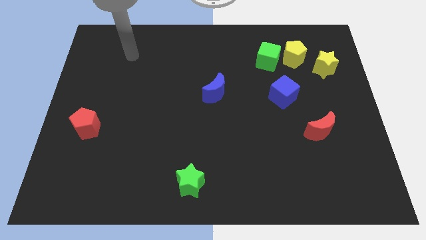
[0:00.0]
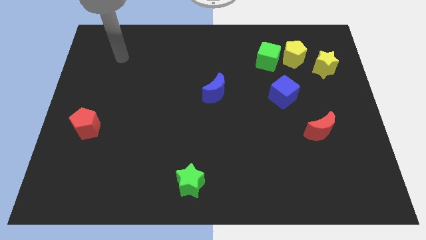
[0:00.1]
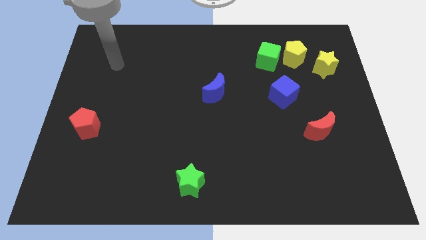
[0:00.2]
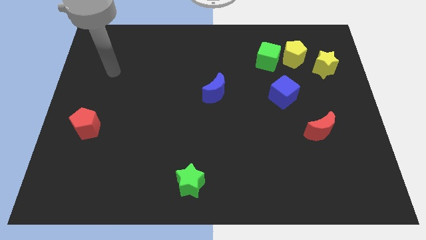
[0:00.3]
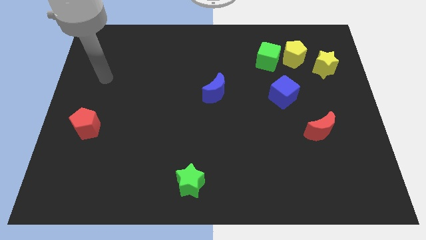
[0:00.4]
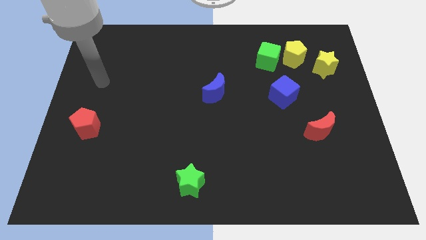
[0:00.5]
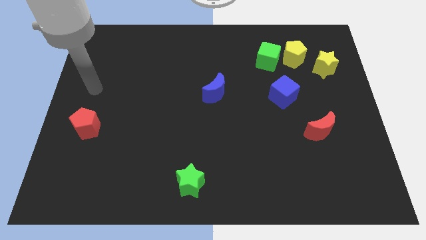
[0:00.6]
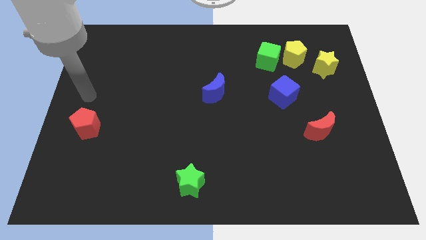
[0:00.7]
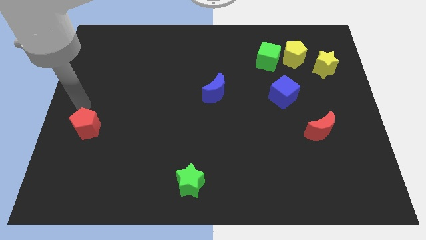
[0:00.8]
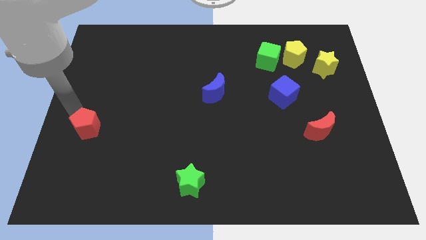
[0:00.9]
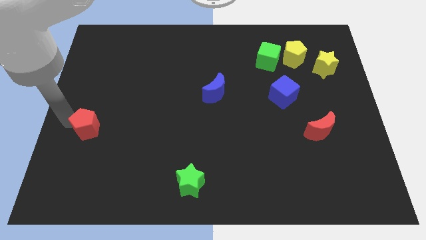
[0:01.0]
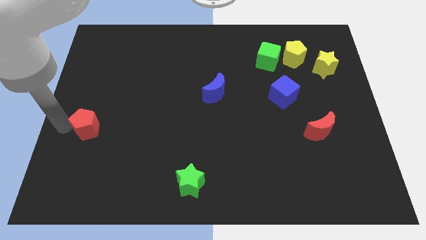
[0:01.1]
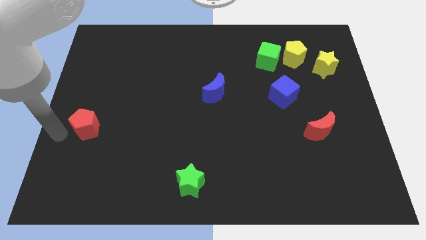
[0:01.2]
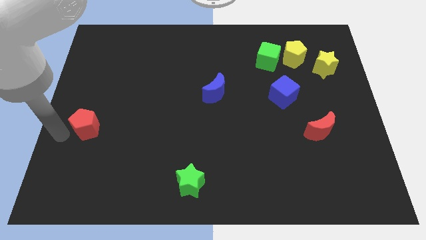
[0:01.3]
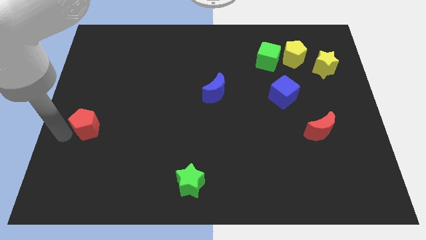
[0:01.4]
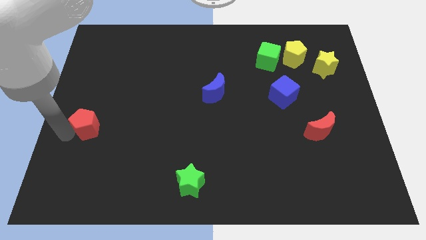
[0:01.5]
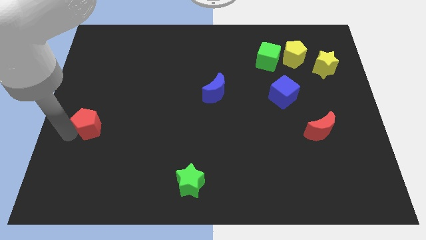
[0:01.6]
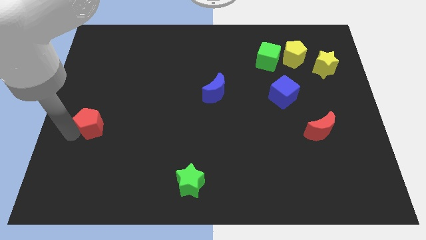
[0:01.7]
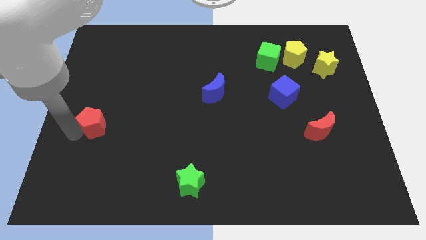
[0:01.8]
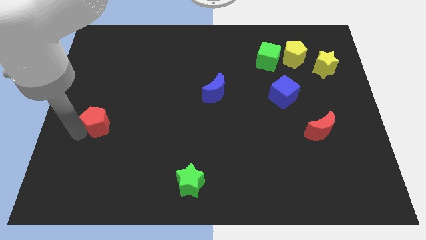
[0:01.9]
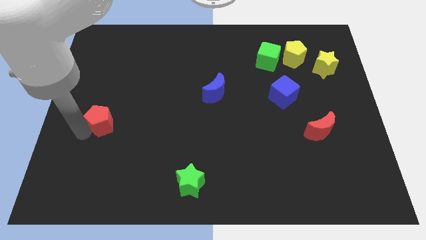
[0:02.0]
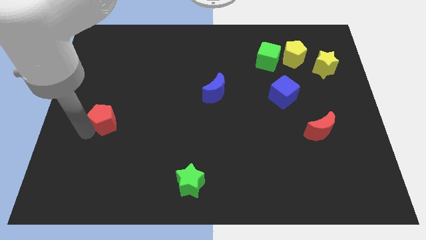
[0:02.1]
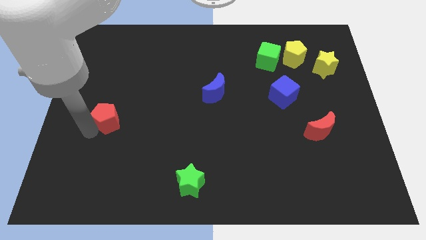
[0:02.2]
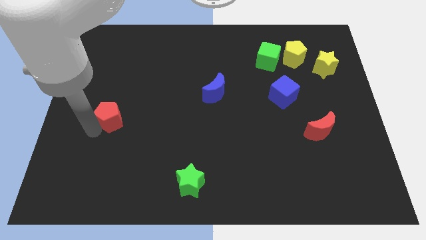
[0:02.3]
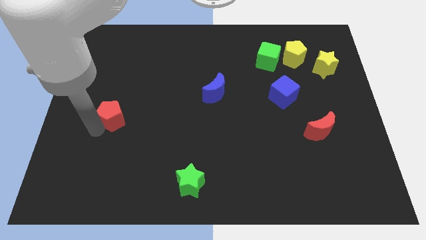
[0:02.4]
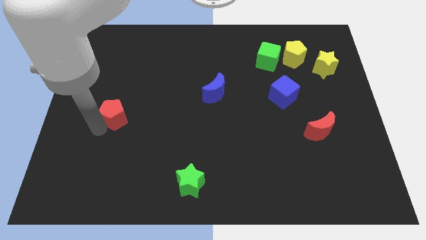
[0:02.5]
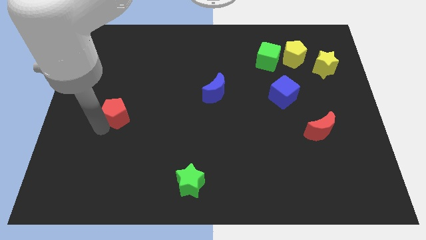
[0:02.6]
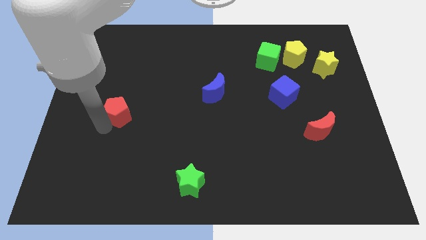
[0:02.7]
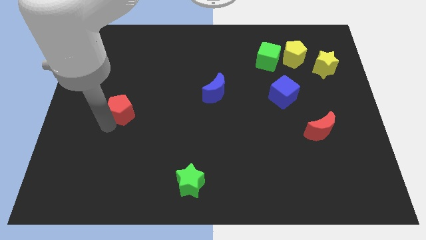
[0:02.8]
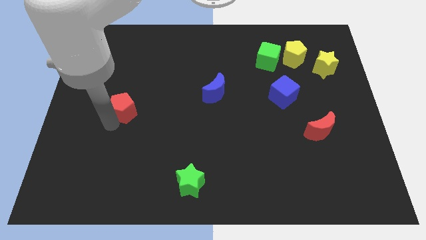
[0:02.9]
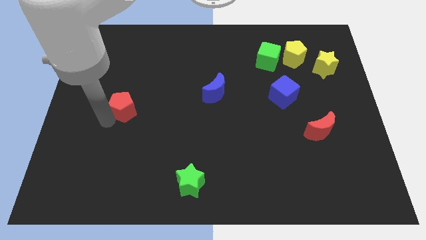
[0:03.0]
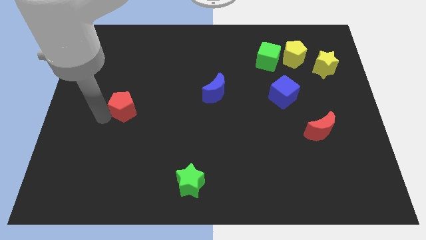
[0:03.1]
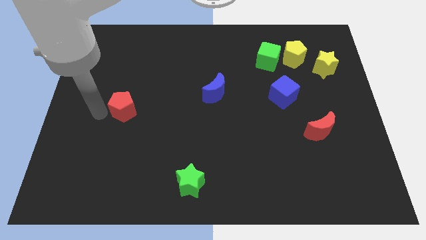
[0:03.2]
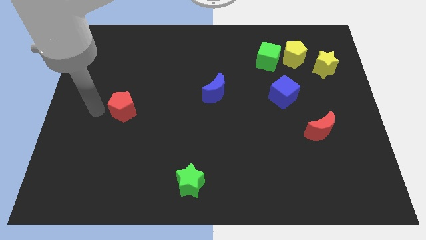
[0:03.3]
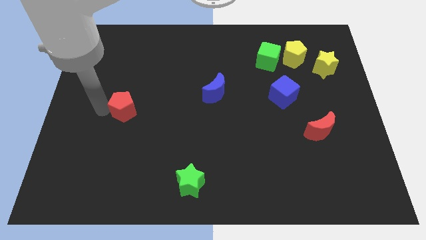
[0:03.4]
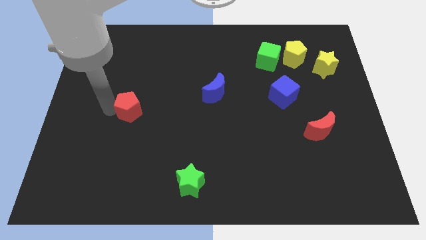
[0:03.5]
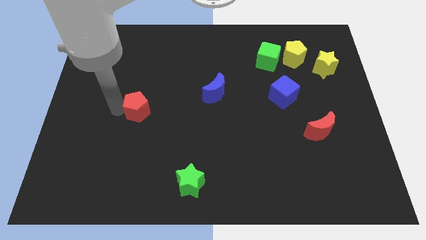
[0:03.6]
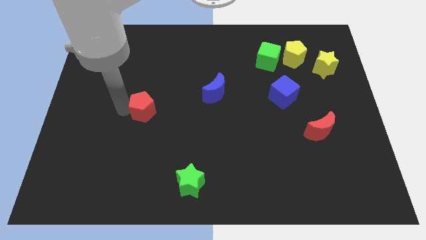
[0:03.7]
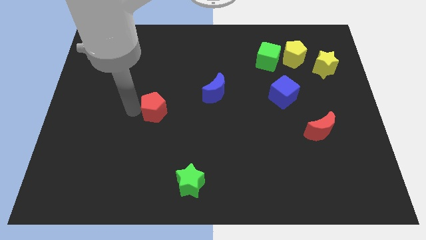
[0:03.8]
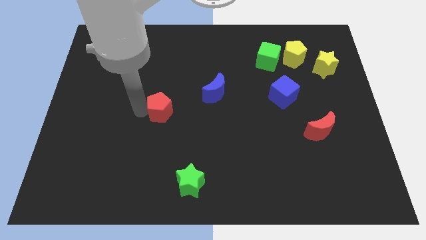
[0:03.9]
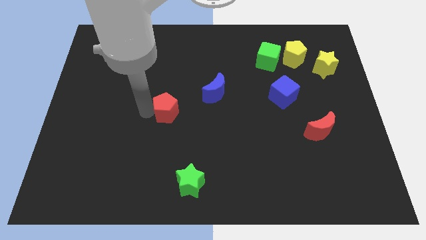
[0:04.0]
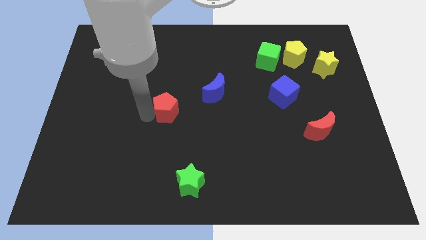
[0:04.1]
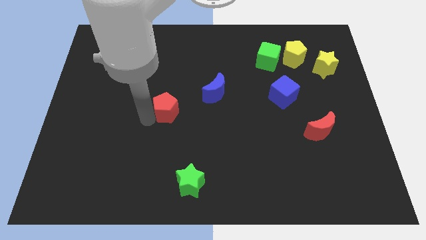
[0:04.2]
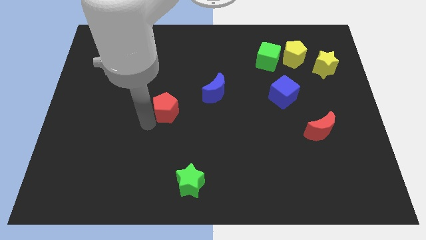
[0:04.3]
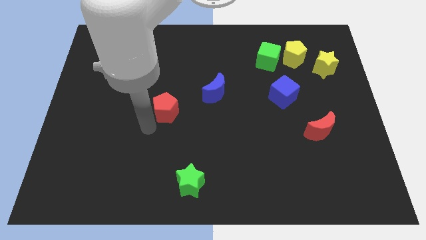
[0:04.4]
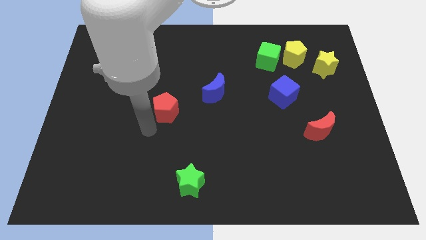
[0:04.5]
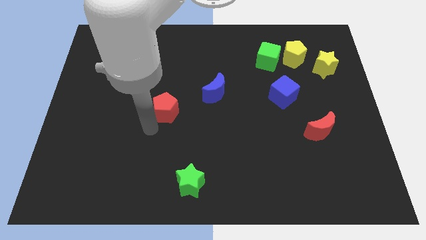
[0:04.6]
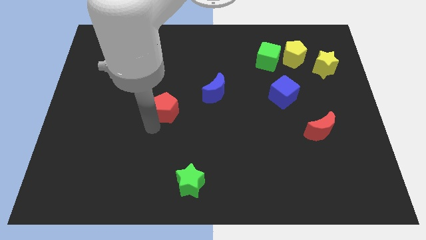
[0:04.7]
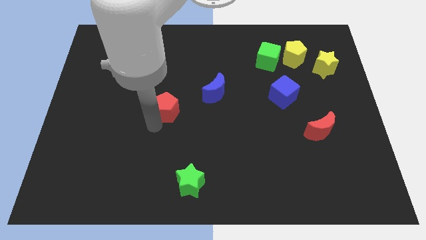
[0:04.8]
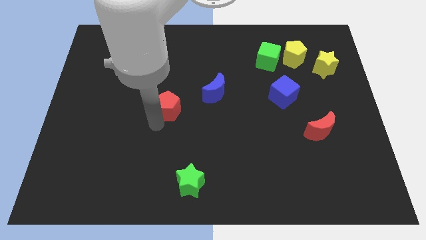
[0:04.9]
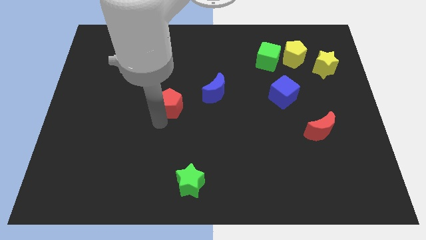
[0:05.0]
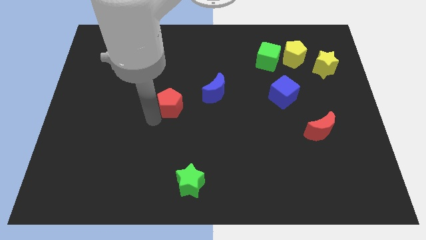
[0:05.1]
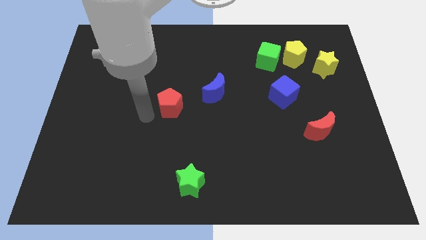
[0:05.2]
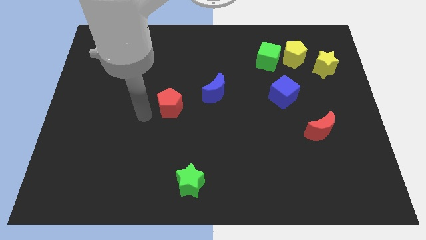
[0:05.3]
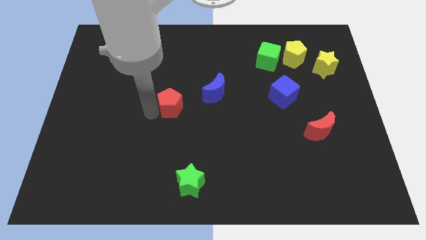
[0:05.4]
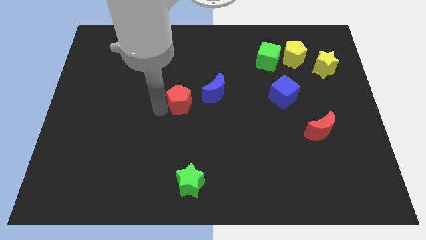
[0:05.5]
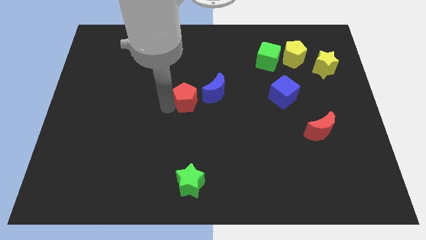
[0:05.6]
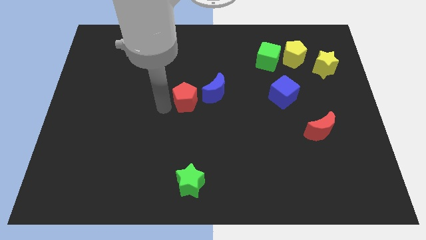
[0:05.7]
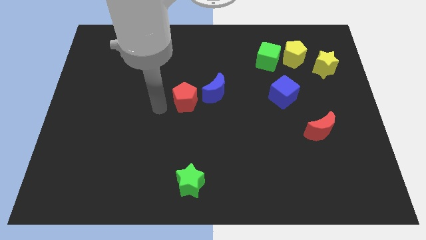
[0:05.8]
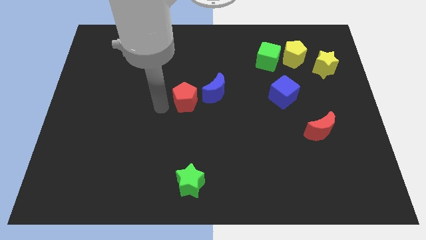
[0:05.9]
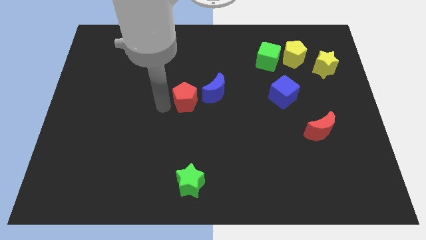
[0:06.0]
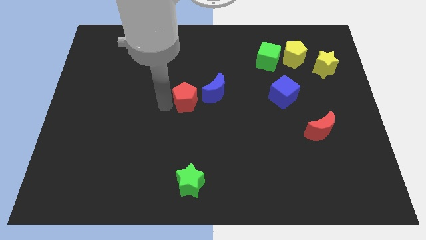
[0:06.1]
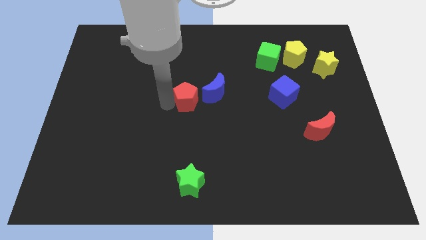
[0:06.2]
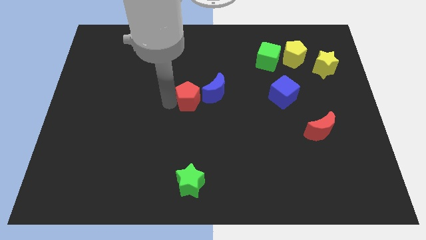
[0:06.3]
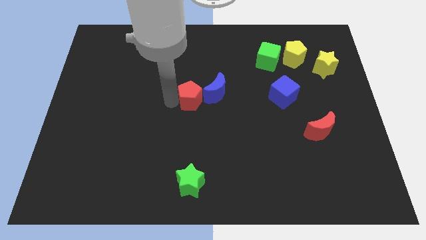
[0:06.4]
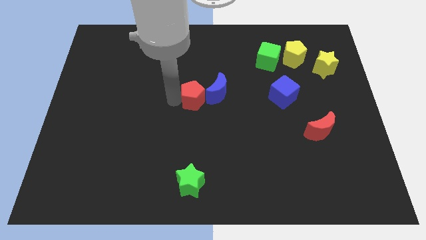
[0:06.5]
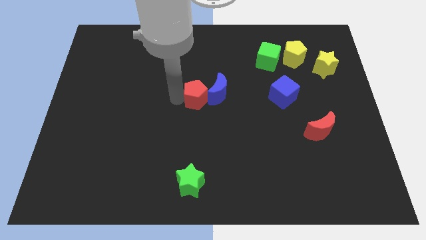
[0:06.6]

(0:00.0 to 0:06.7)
put the red pentagon to the blue moon

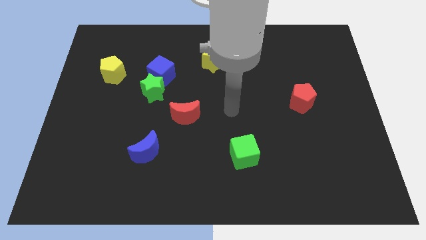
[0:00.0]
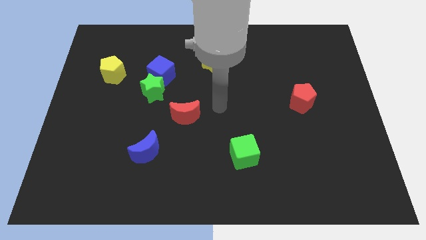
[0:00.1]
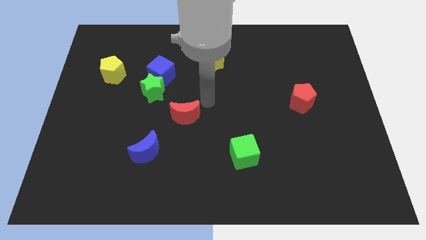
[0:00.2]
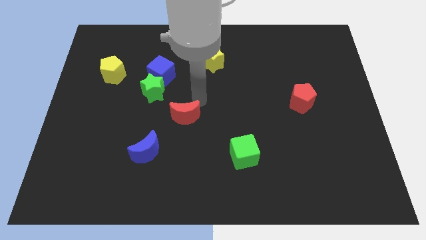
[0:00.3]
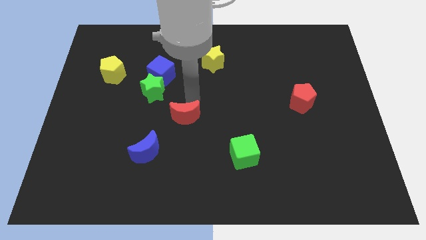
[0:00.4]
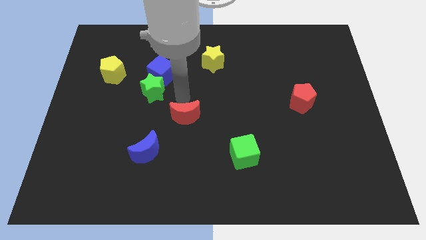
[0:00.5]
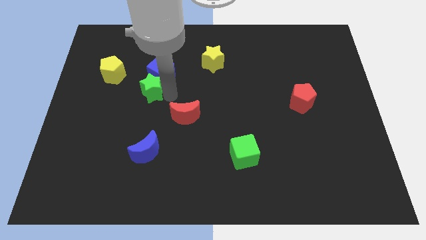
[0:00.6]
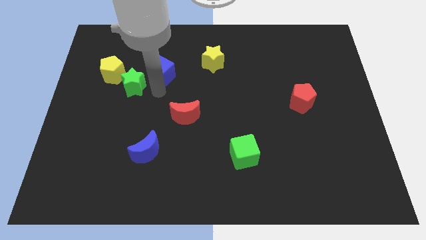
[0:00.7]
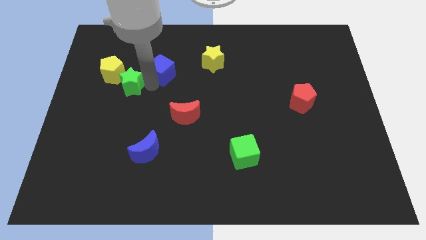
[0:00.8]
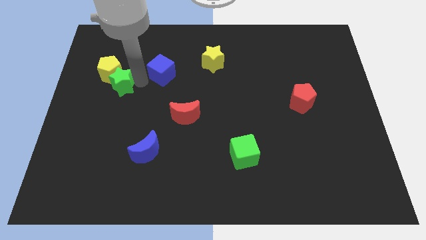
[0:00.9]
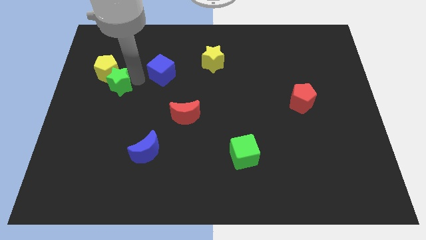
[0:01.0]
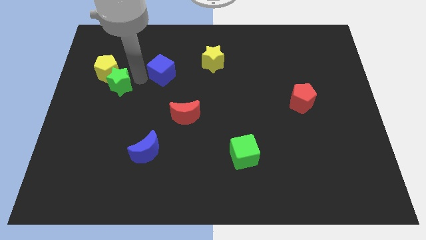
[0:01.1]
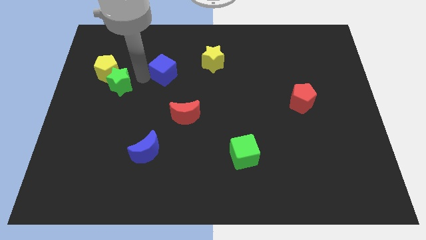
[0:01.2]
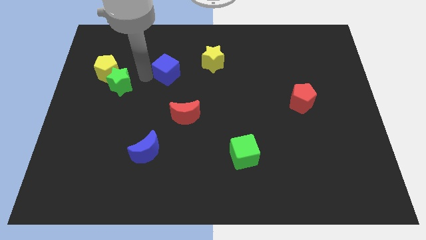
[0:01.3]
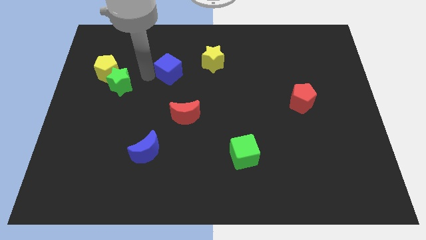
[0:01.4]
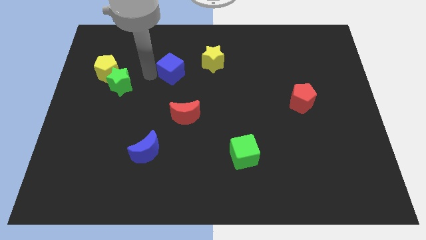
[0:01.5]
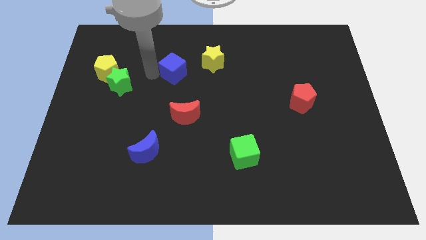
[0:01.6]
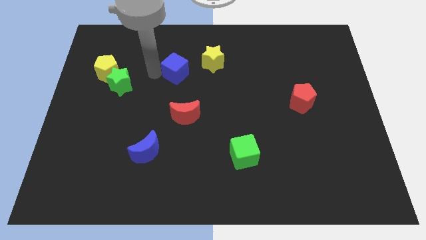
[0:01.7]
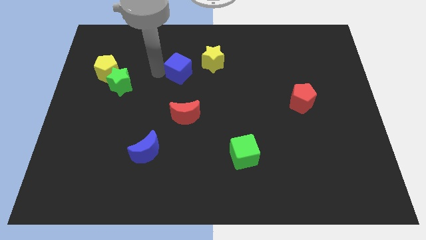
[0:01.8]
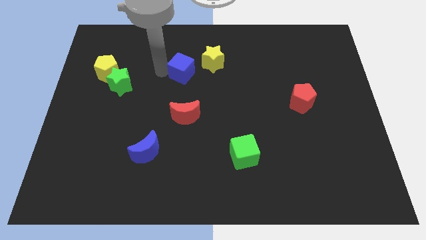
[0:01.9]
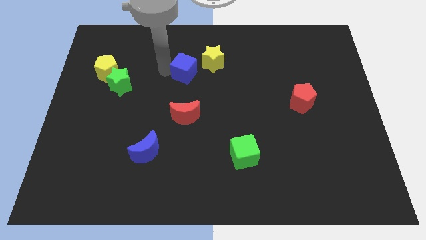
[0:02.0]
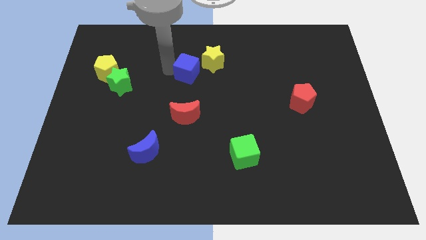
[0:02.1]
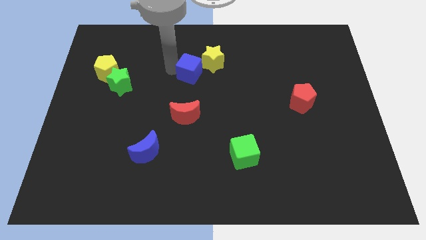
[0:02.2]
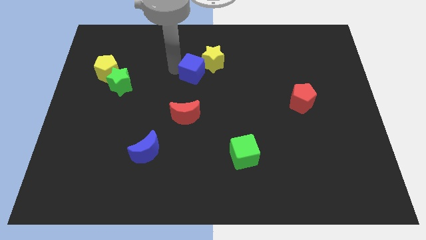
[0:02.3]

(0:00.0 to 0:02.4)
slide the blue cube close to the yellow star
